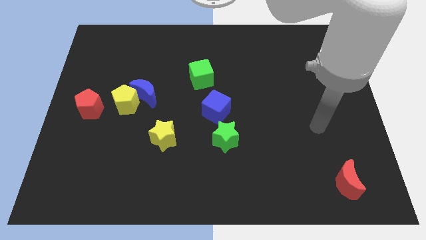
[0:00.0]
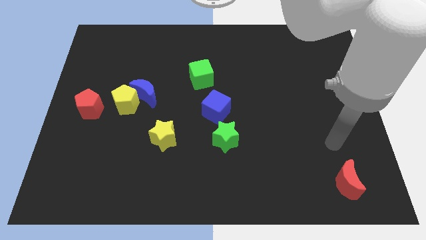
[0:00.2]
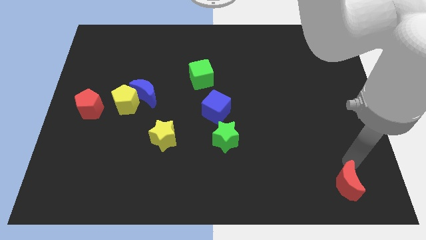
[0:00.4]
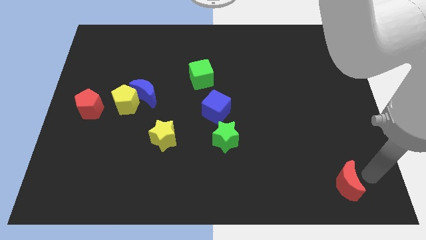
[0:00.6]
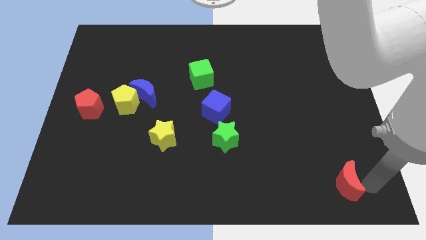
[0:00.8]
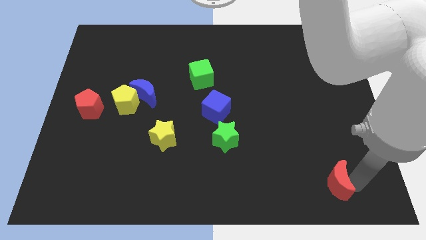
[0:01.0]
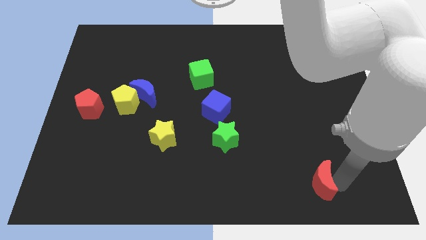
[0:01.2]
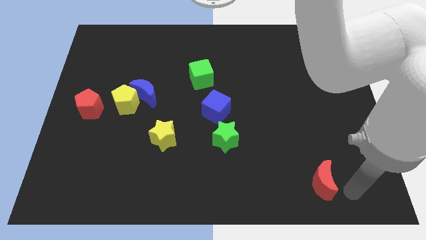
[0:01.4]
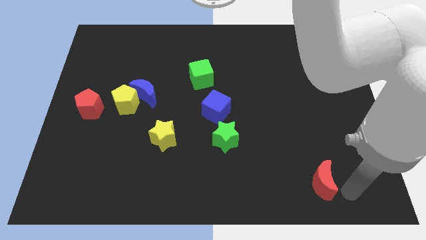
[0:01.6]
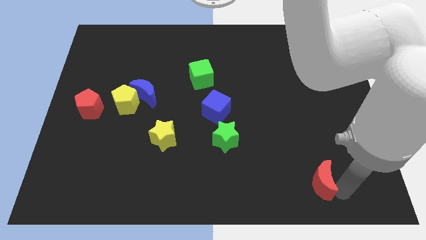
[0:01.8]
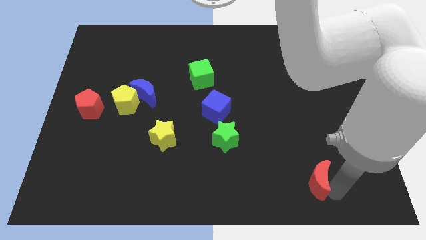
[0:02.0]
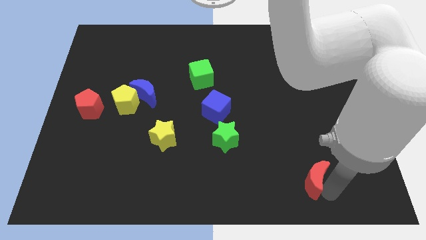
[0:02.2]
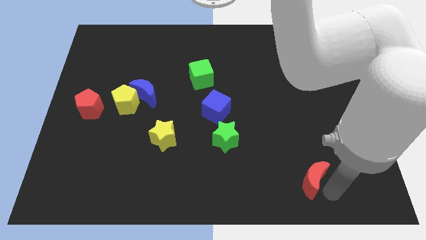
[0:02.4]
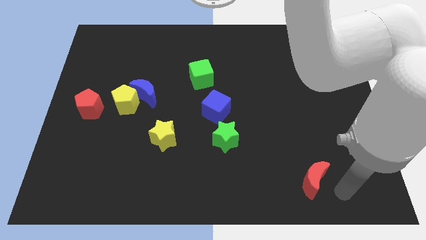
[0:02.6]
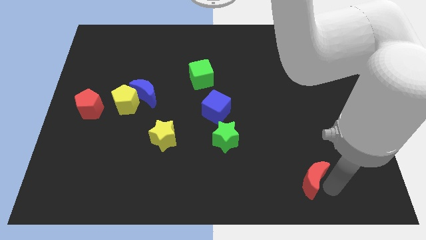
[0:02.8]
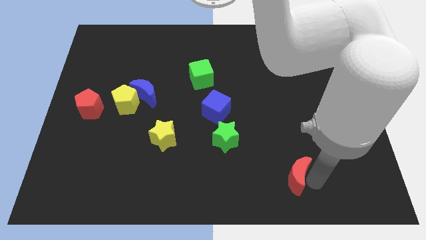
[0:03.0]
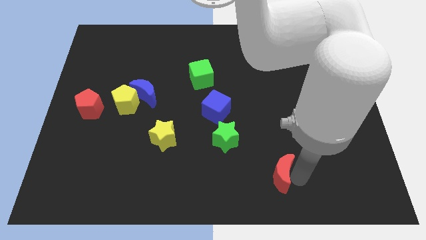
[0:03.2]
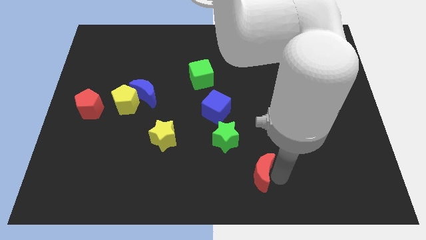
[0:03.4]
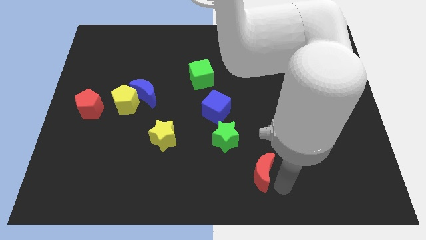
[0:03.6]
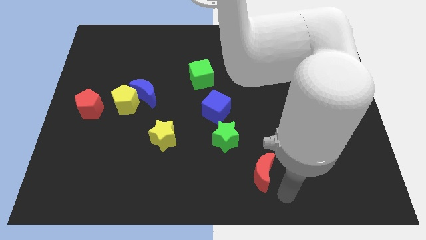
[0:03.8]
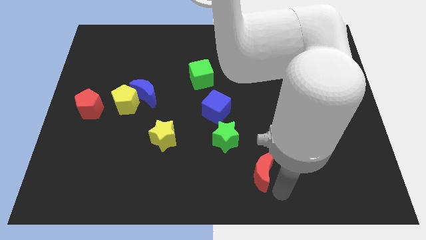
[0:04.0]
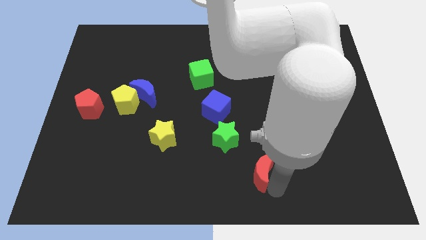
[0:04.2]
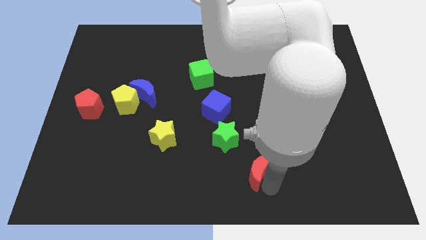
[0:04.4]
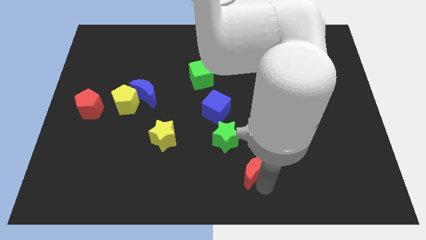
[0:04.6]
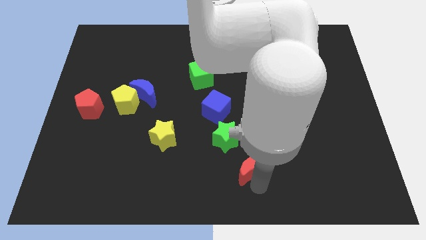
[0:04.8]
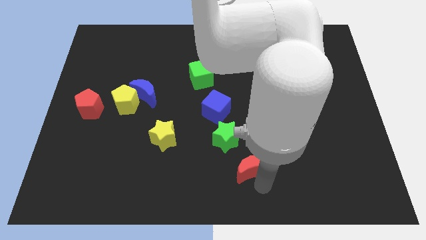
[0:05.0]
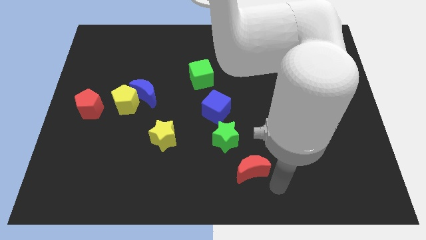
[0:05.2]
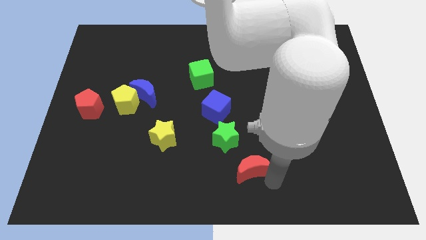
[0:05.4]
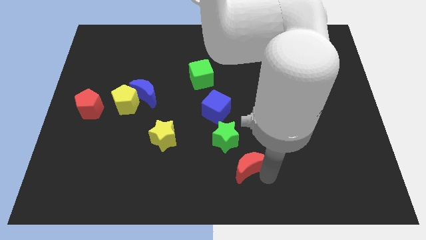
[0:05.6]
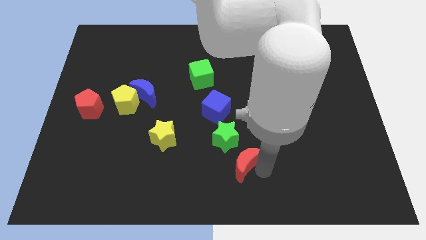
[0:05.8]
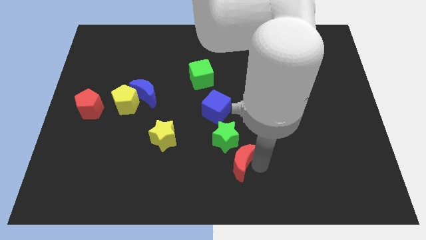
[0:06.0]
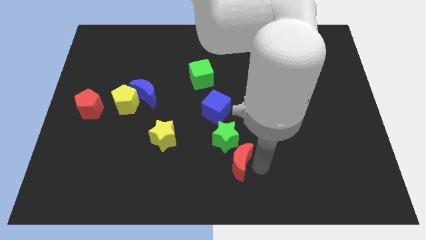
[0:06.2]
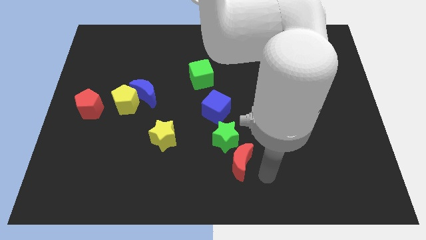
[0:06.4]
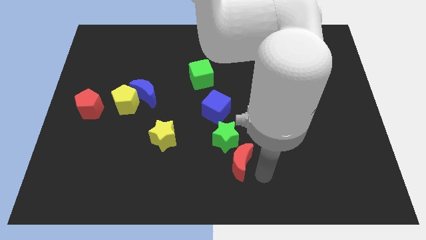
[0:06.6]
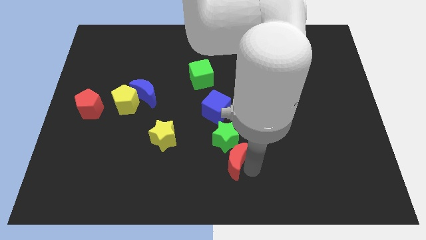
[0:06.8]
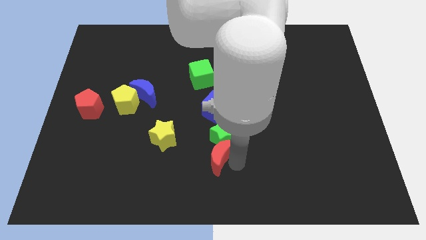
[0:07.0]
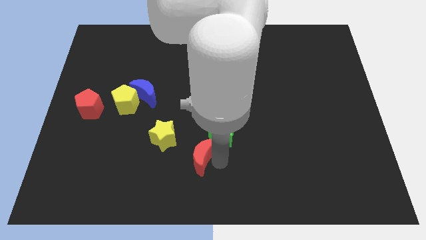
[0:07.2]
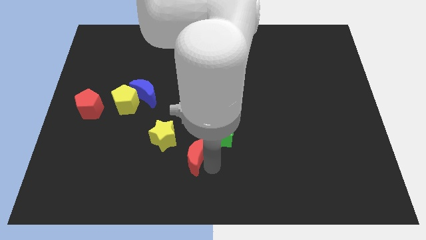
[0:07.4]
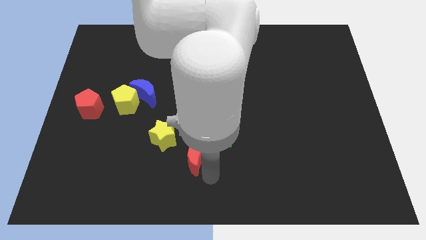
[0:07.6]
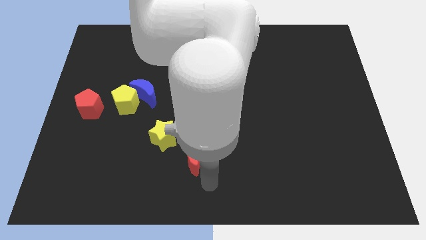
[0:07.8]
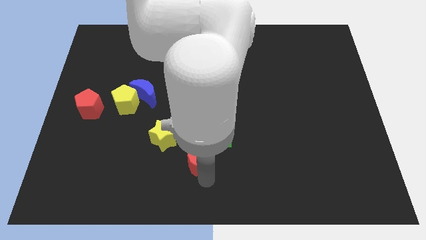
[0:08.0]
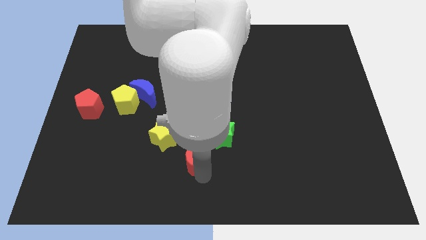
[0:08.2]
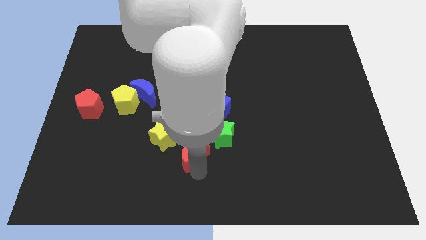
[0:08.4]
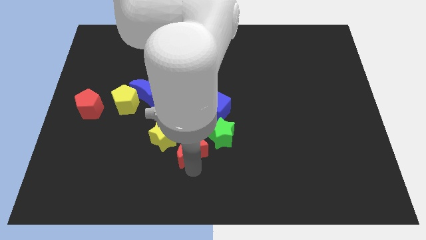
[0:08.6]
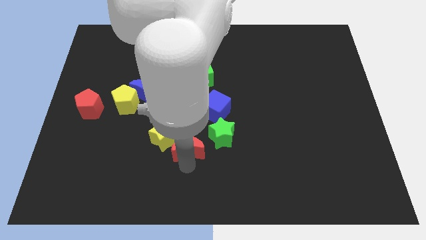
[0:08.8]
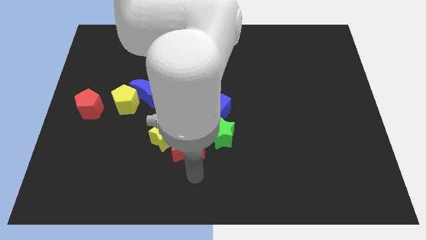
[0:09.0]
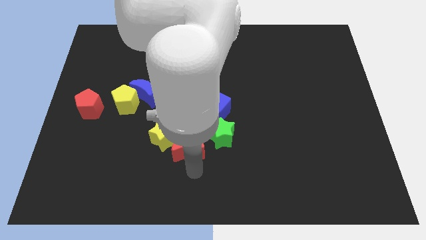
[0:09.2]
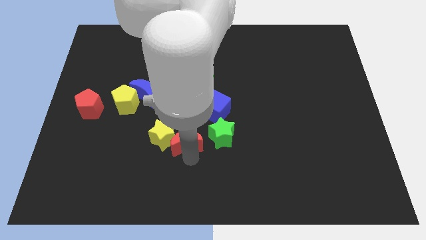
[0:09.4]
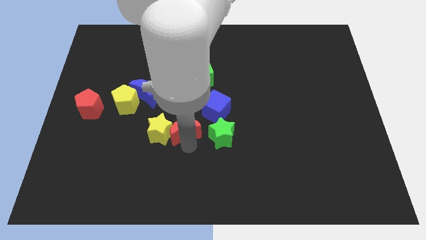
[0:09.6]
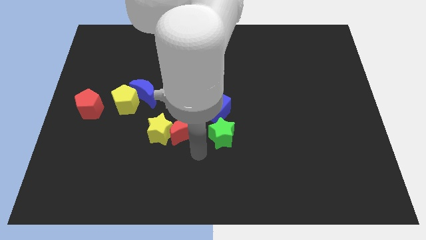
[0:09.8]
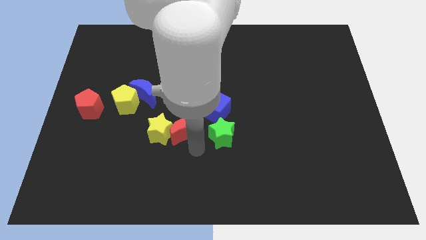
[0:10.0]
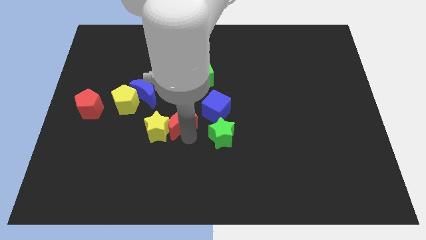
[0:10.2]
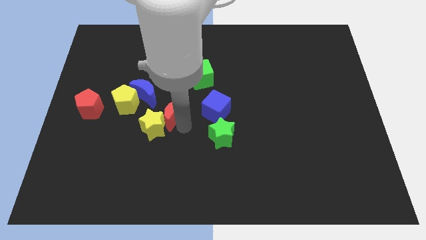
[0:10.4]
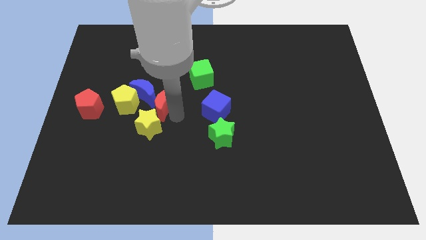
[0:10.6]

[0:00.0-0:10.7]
move the red moon towards the blue moon
